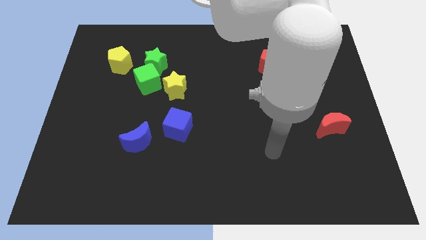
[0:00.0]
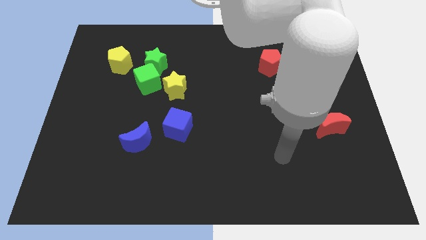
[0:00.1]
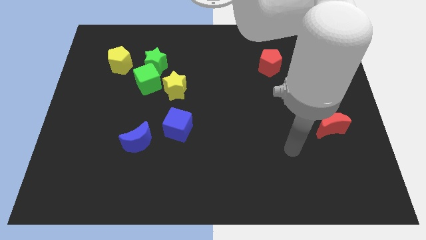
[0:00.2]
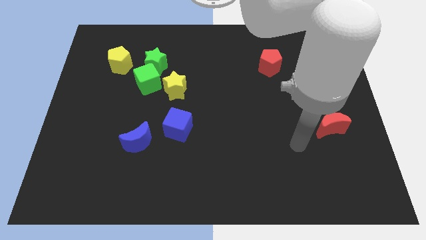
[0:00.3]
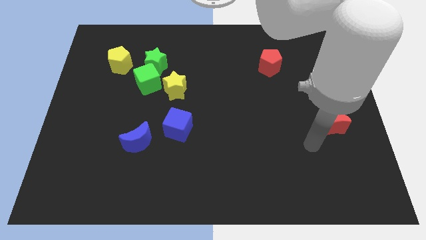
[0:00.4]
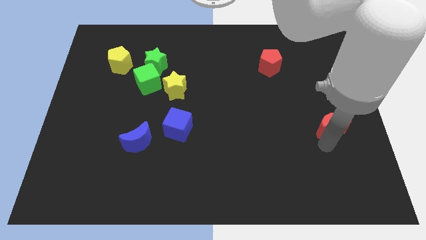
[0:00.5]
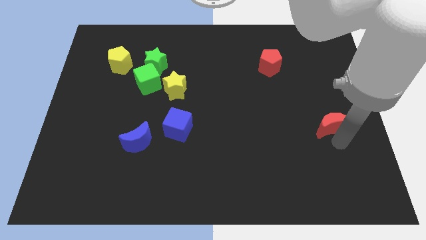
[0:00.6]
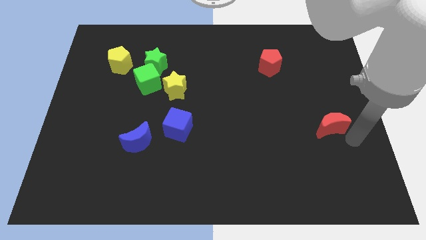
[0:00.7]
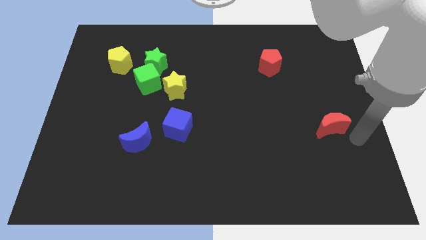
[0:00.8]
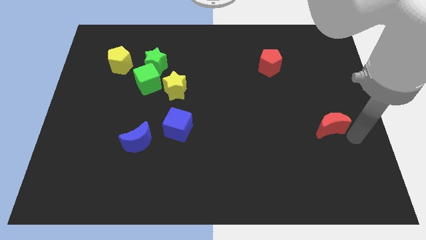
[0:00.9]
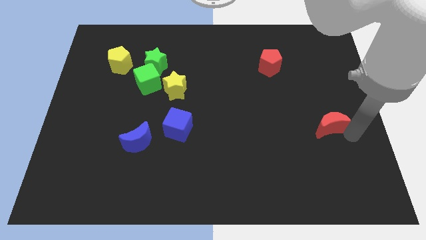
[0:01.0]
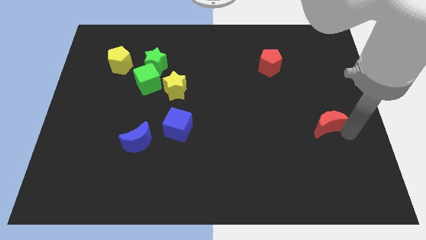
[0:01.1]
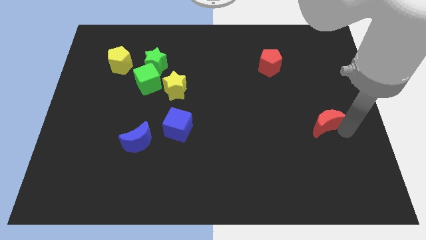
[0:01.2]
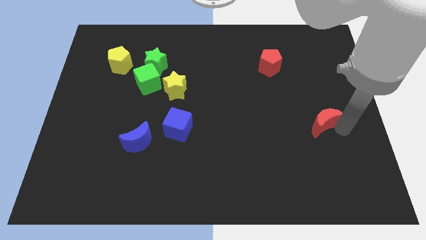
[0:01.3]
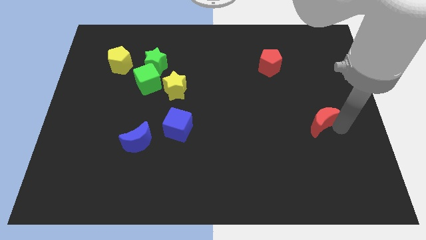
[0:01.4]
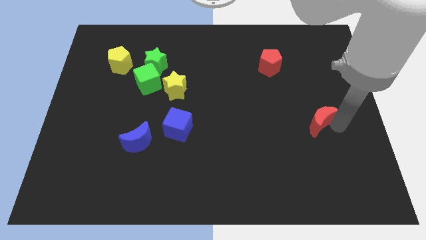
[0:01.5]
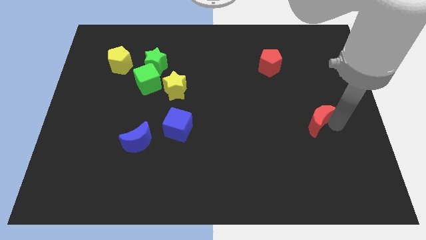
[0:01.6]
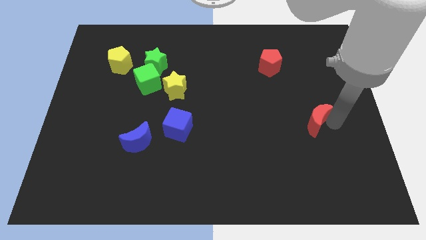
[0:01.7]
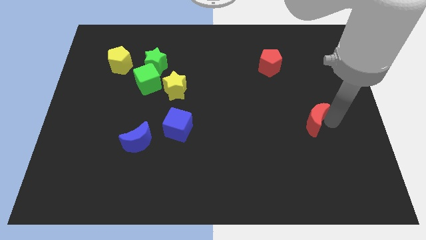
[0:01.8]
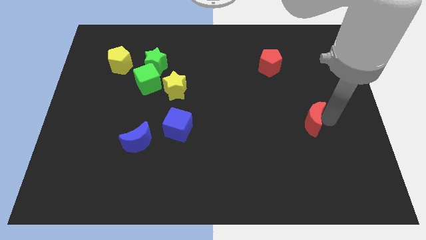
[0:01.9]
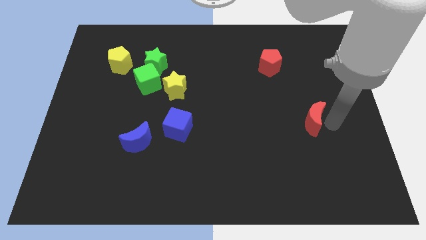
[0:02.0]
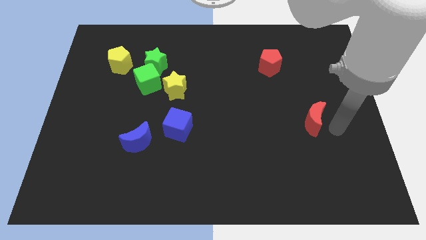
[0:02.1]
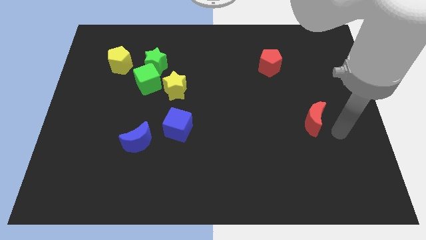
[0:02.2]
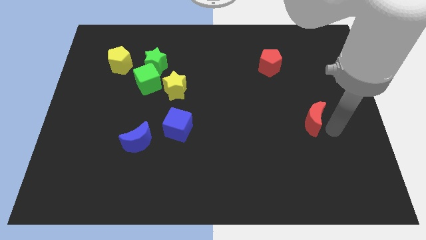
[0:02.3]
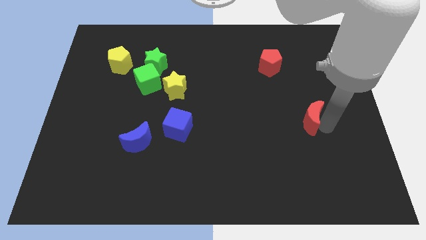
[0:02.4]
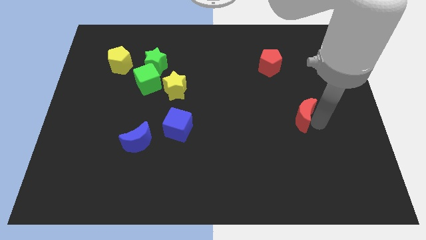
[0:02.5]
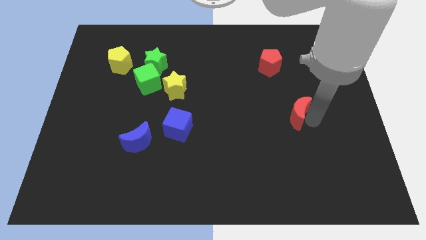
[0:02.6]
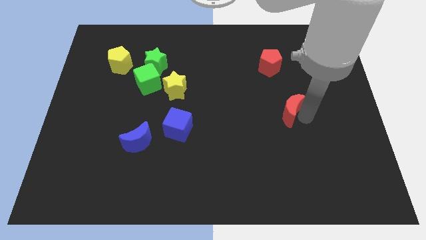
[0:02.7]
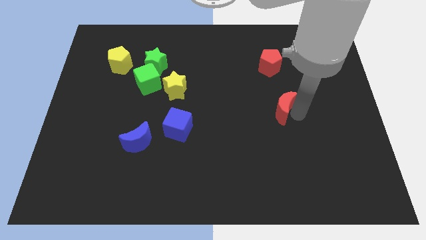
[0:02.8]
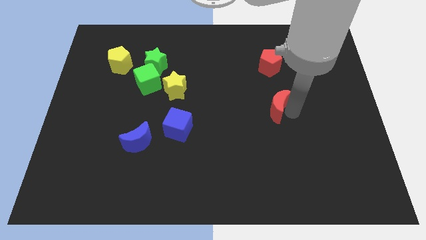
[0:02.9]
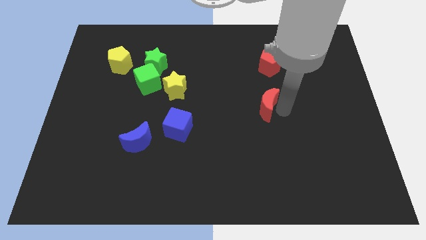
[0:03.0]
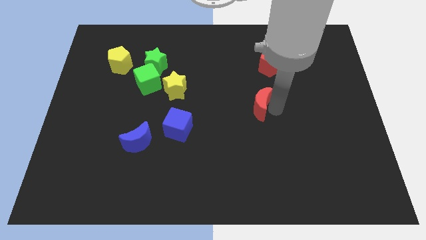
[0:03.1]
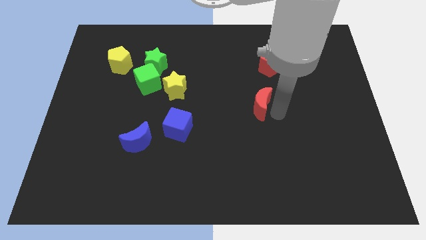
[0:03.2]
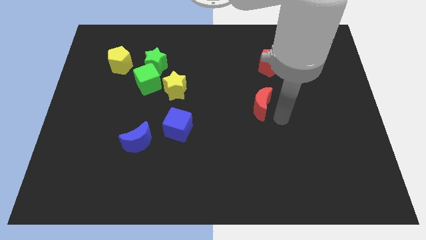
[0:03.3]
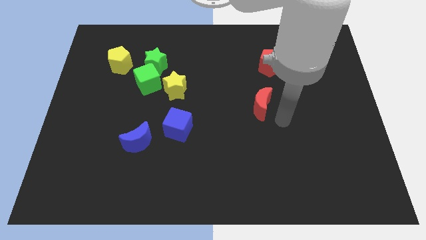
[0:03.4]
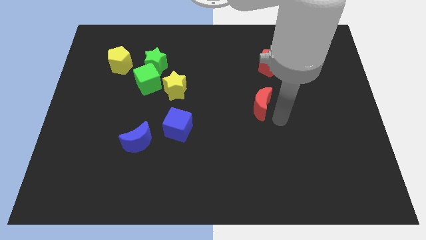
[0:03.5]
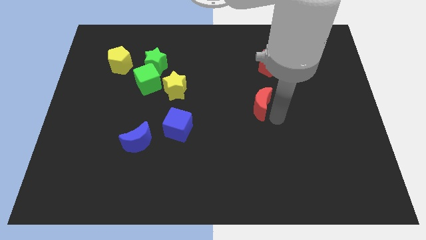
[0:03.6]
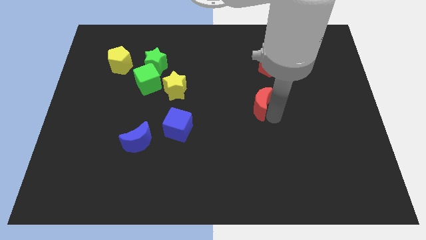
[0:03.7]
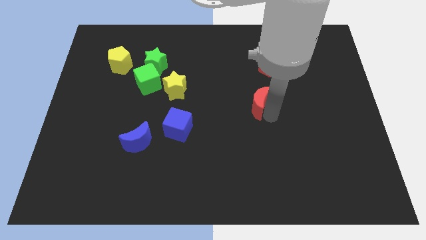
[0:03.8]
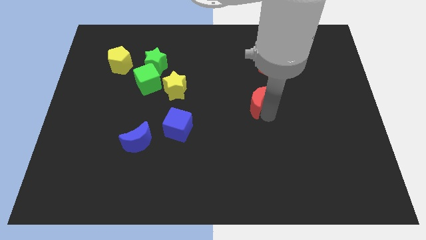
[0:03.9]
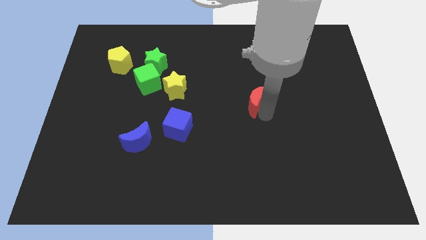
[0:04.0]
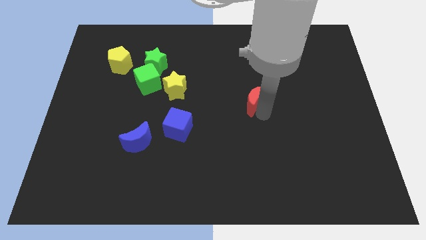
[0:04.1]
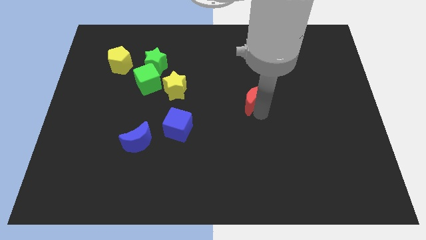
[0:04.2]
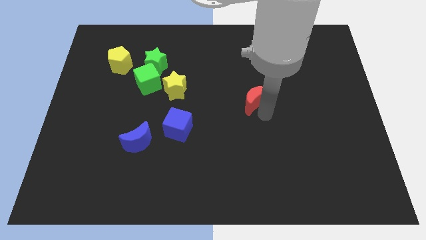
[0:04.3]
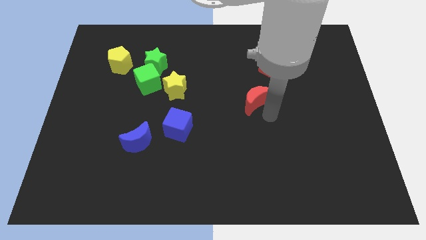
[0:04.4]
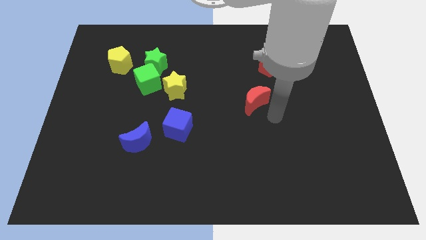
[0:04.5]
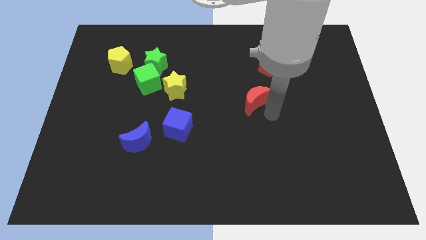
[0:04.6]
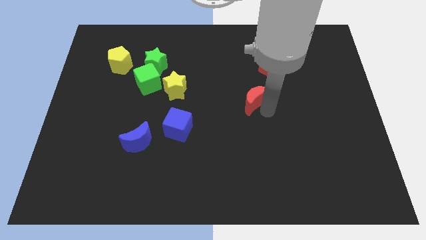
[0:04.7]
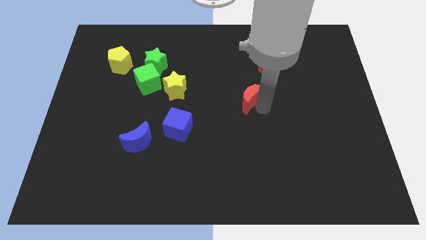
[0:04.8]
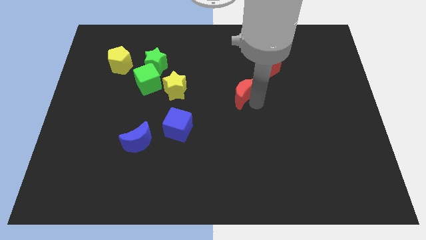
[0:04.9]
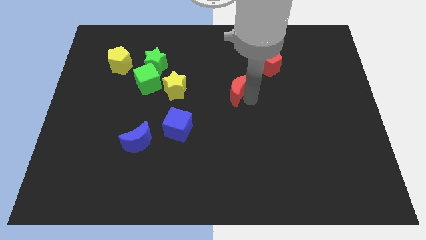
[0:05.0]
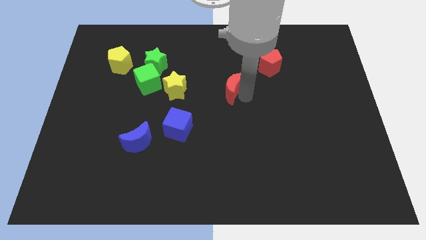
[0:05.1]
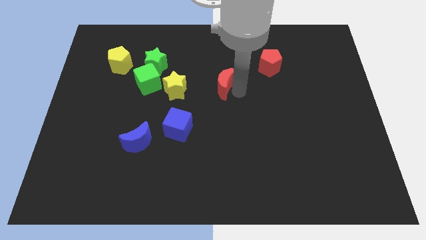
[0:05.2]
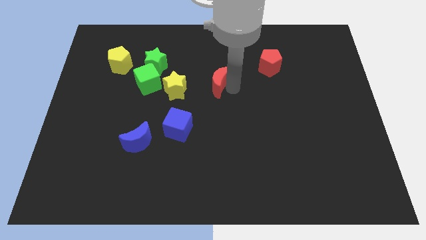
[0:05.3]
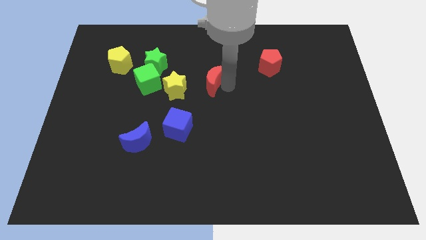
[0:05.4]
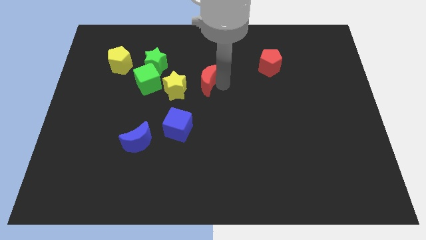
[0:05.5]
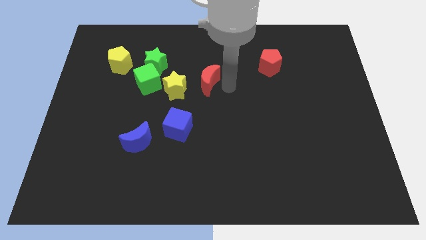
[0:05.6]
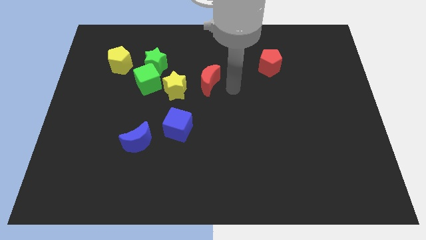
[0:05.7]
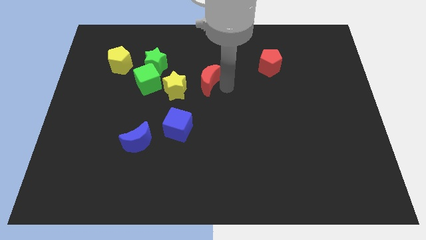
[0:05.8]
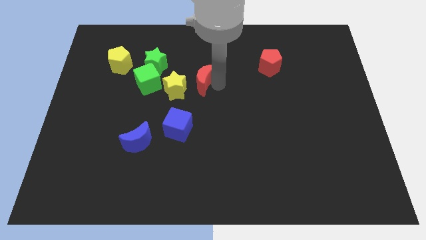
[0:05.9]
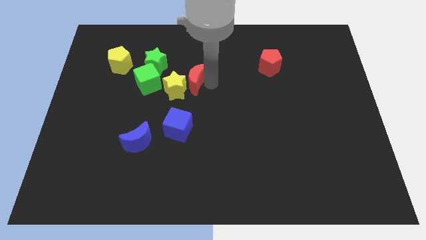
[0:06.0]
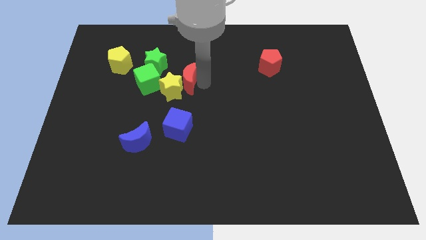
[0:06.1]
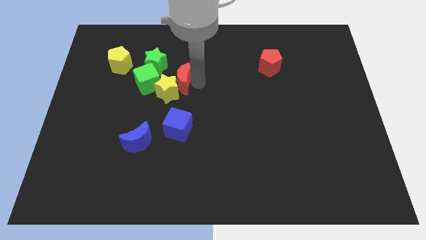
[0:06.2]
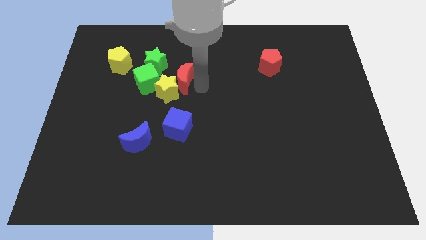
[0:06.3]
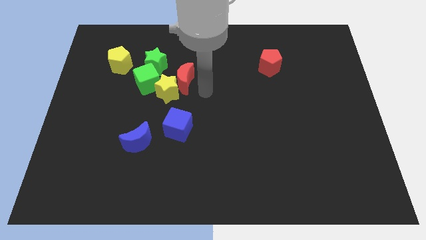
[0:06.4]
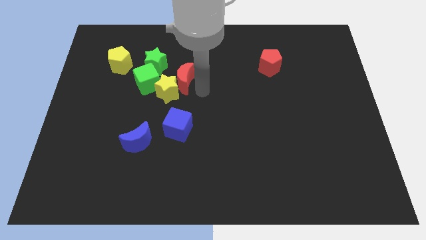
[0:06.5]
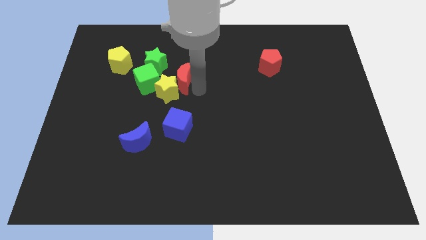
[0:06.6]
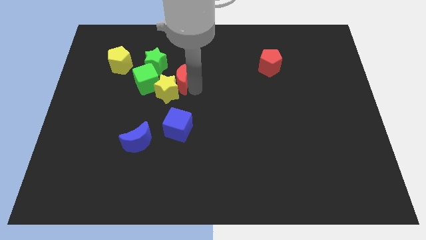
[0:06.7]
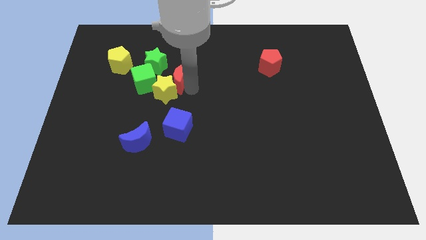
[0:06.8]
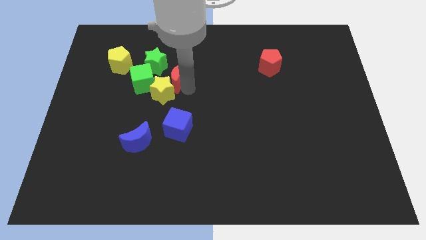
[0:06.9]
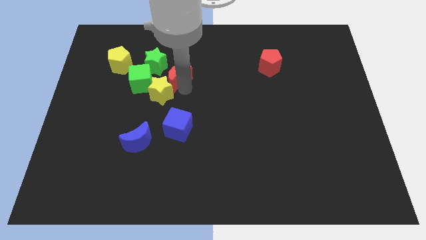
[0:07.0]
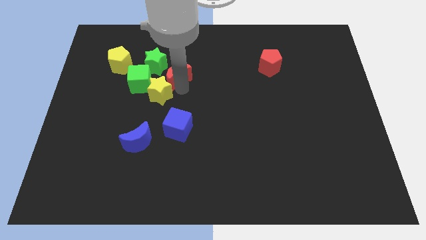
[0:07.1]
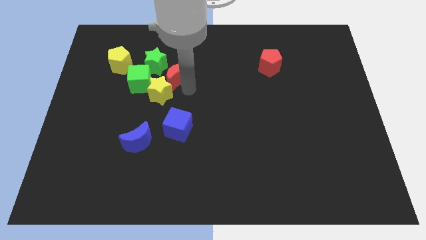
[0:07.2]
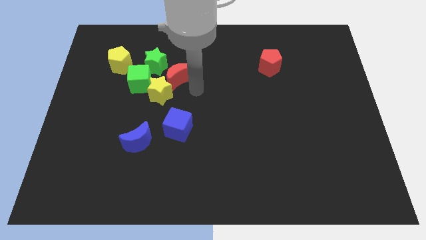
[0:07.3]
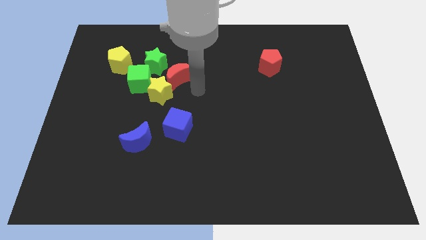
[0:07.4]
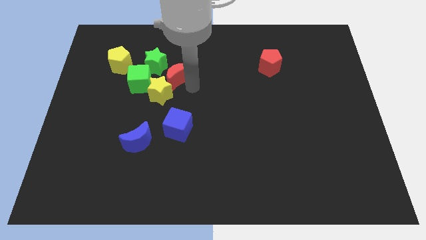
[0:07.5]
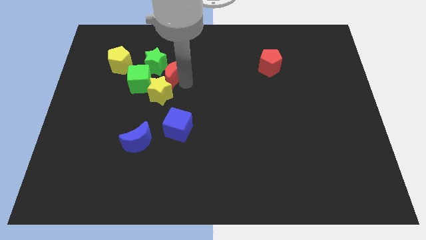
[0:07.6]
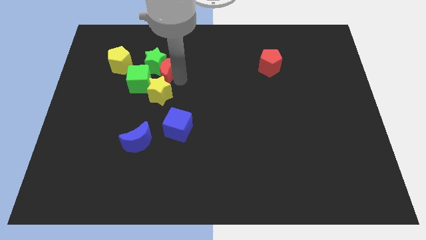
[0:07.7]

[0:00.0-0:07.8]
put the red moon towards the green star
